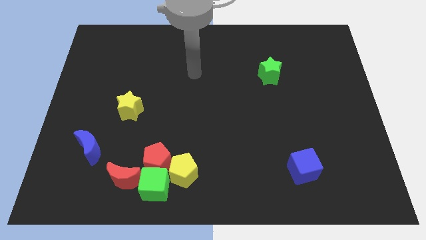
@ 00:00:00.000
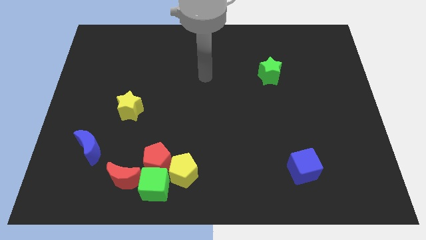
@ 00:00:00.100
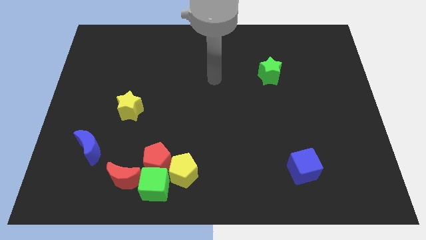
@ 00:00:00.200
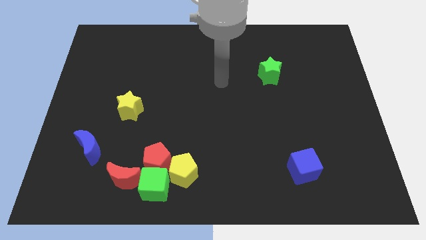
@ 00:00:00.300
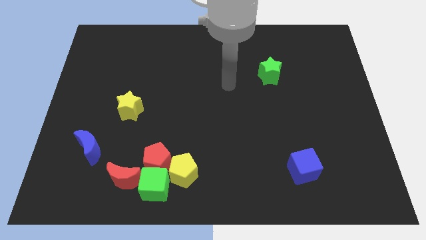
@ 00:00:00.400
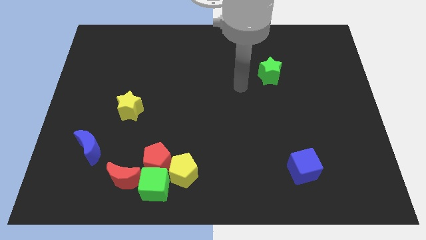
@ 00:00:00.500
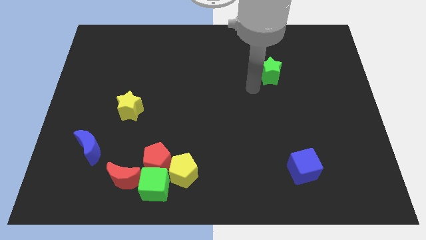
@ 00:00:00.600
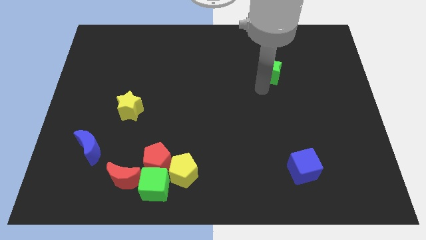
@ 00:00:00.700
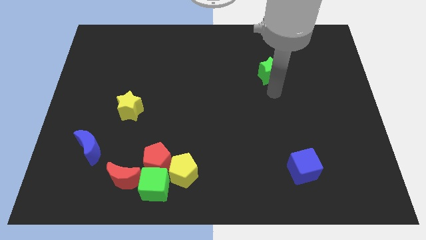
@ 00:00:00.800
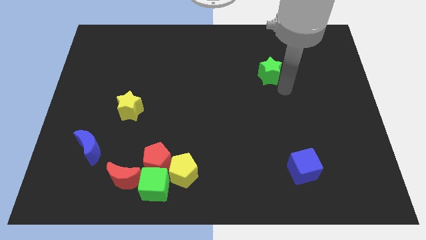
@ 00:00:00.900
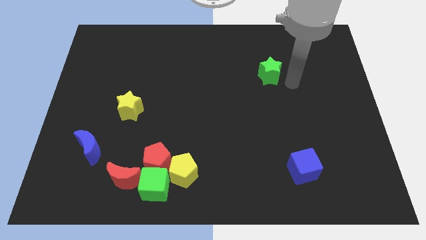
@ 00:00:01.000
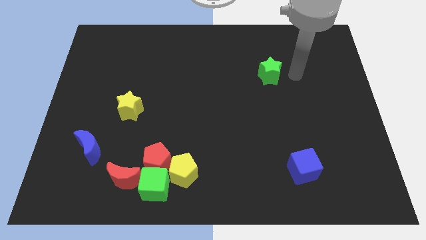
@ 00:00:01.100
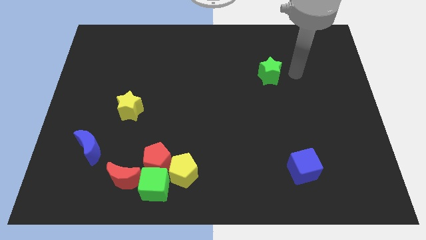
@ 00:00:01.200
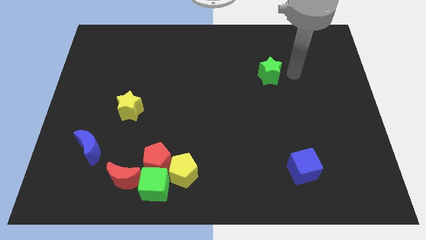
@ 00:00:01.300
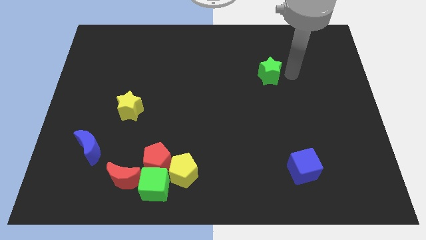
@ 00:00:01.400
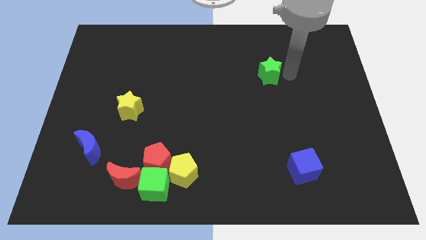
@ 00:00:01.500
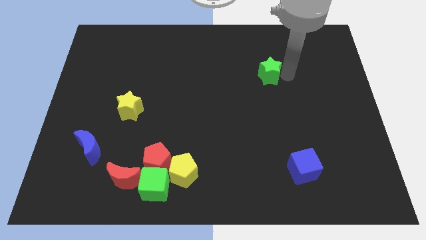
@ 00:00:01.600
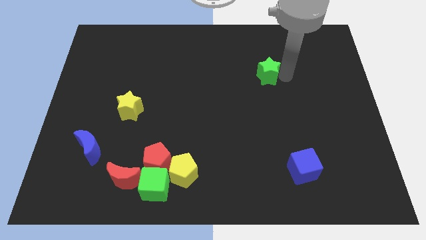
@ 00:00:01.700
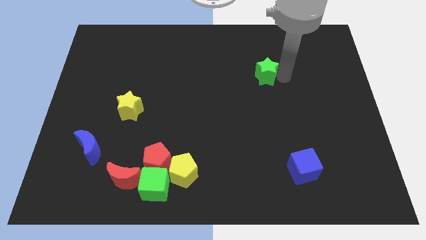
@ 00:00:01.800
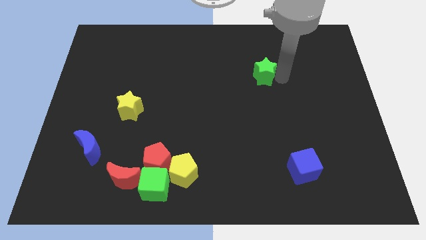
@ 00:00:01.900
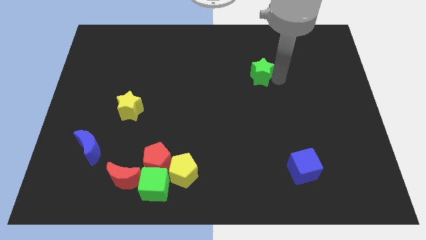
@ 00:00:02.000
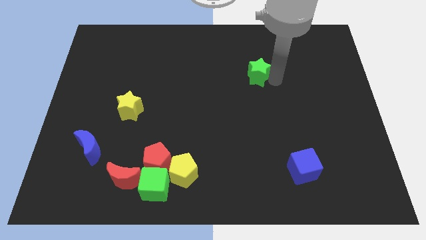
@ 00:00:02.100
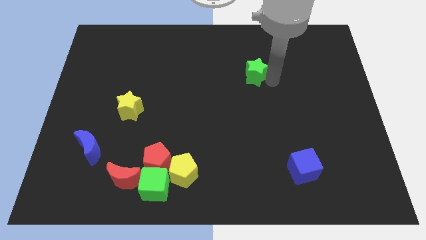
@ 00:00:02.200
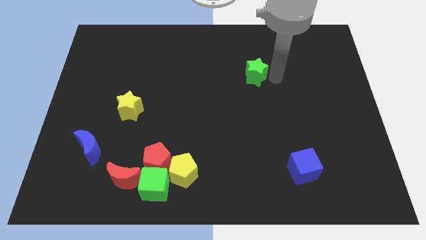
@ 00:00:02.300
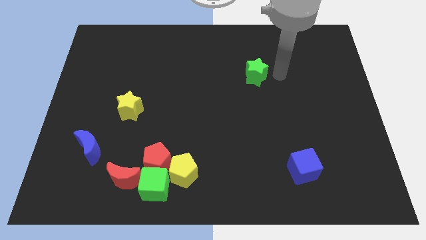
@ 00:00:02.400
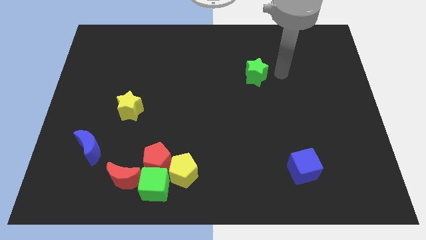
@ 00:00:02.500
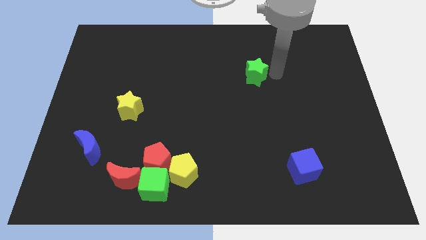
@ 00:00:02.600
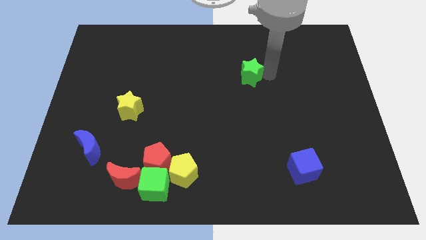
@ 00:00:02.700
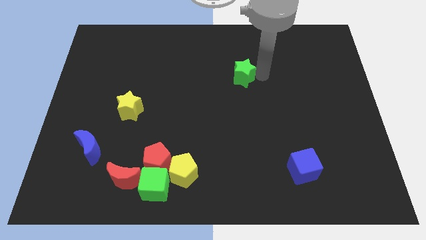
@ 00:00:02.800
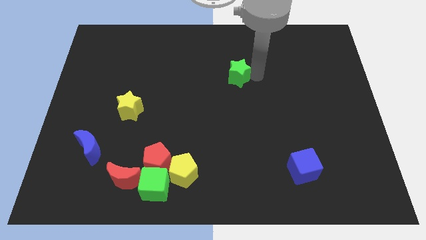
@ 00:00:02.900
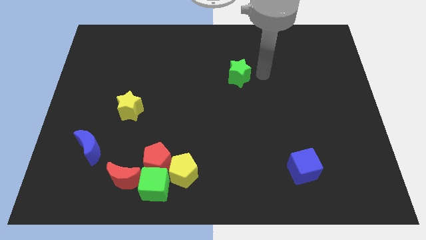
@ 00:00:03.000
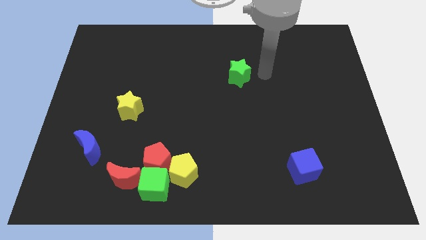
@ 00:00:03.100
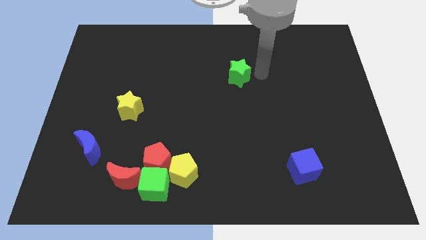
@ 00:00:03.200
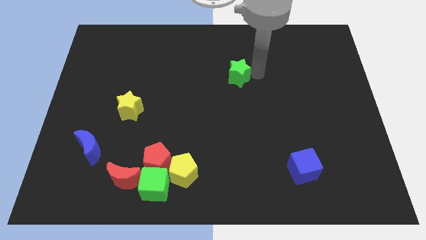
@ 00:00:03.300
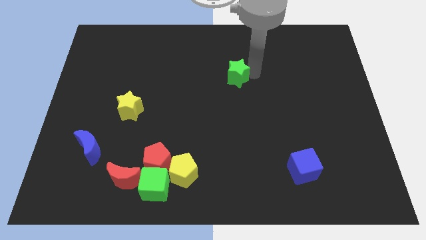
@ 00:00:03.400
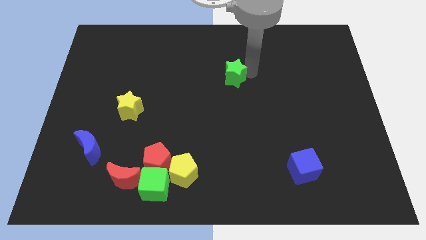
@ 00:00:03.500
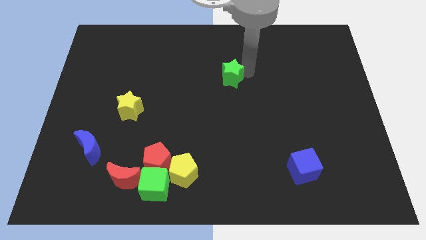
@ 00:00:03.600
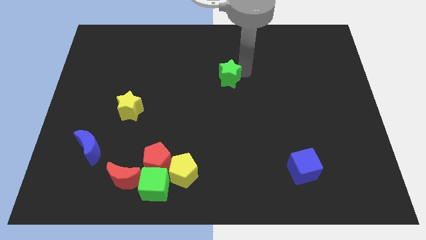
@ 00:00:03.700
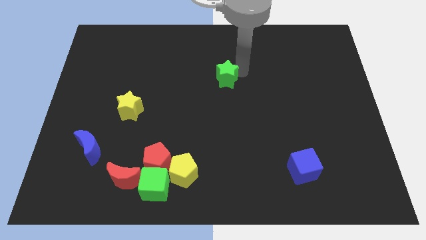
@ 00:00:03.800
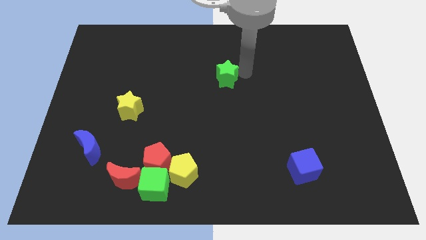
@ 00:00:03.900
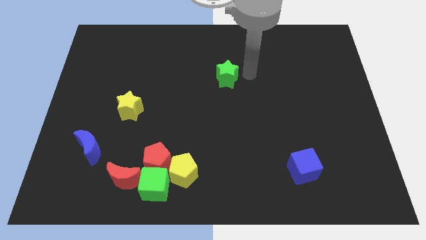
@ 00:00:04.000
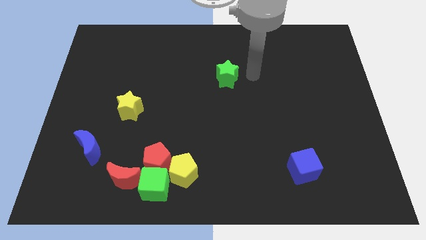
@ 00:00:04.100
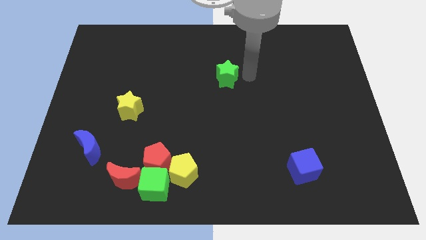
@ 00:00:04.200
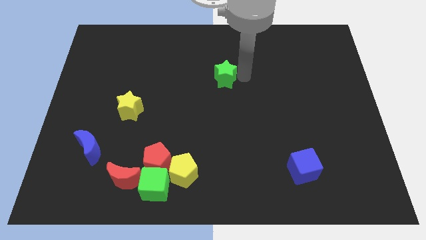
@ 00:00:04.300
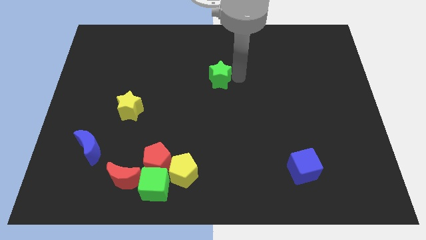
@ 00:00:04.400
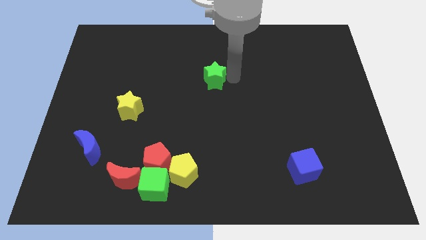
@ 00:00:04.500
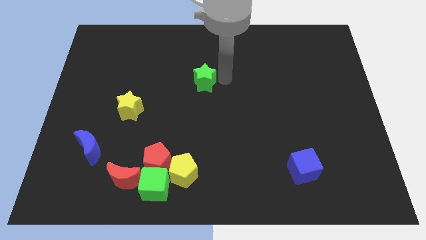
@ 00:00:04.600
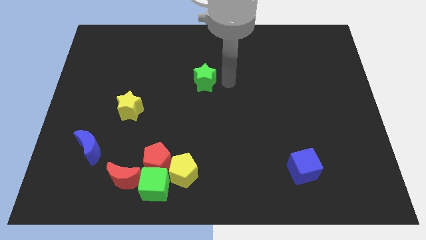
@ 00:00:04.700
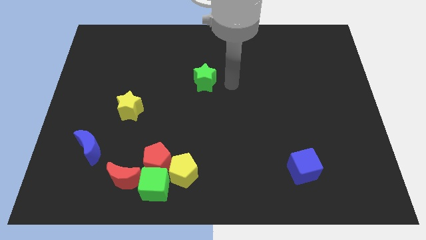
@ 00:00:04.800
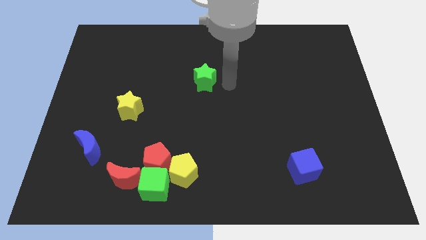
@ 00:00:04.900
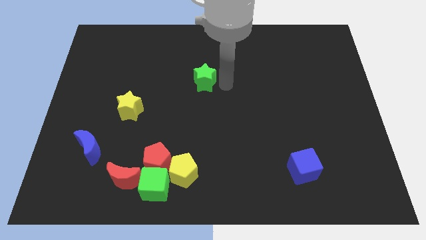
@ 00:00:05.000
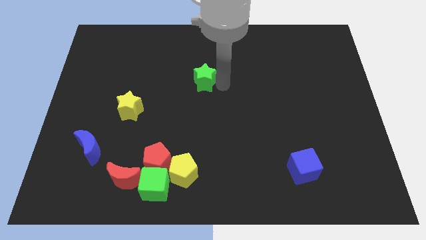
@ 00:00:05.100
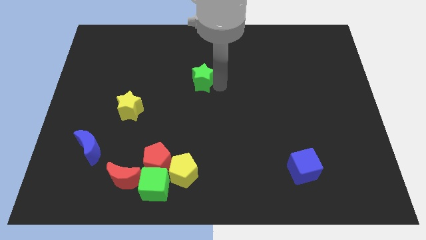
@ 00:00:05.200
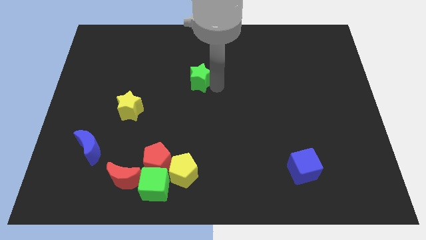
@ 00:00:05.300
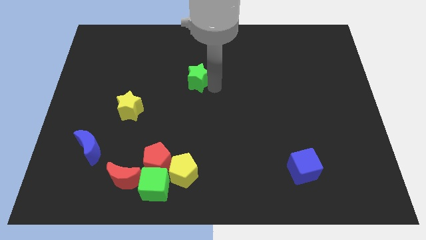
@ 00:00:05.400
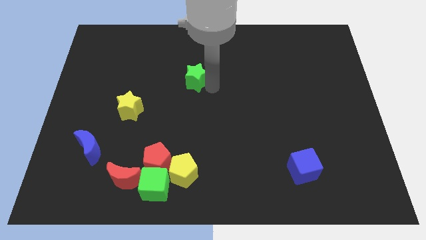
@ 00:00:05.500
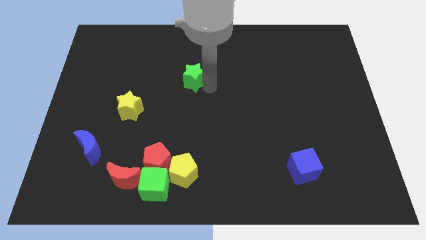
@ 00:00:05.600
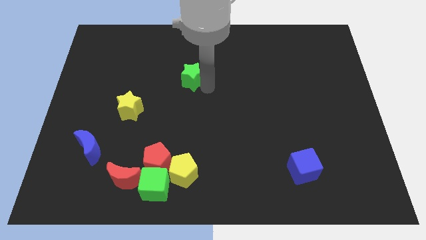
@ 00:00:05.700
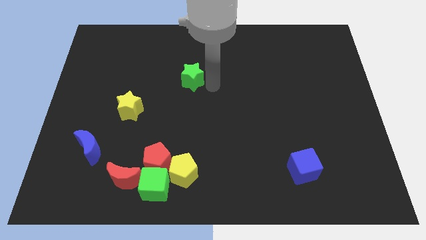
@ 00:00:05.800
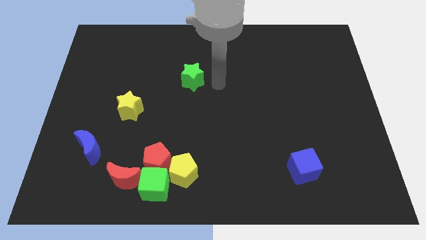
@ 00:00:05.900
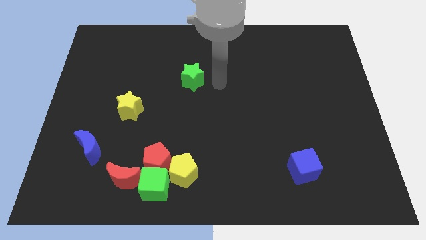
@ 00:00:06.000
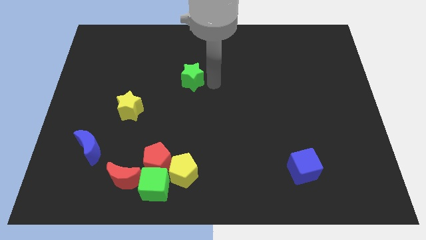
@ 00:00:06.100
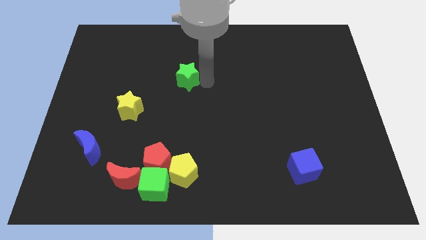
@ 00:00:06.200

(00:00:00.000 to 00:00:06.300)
push the green star left

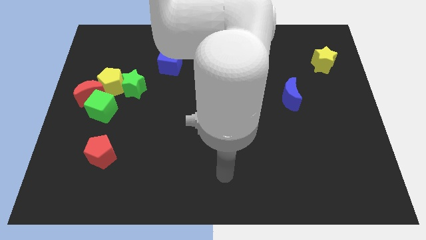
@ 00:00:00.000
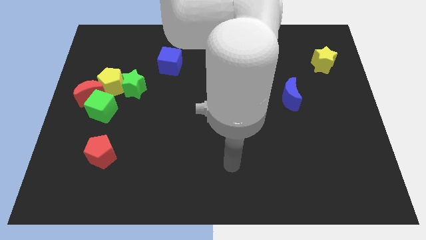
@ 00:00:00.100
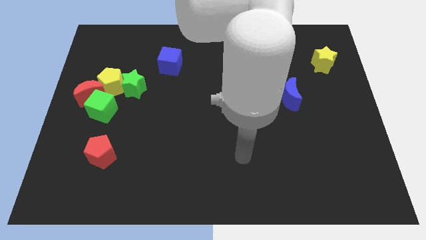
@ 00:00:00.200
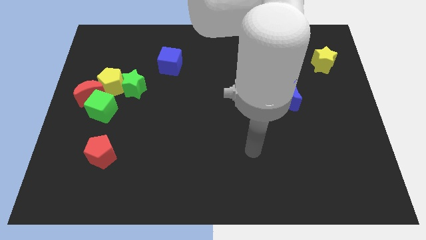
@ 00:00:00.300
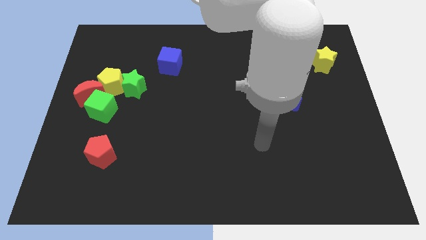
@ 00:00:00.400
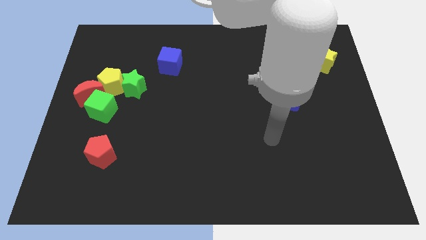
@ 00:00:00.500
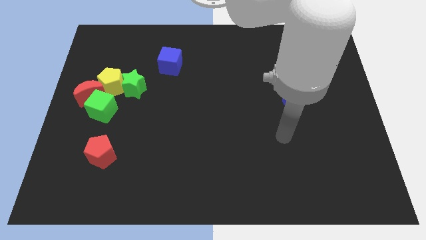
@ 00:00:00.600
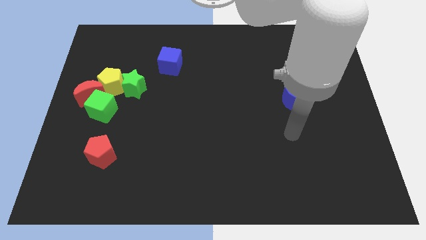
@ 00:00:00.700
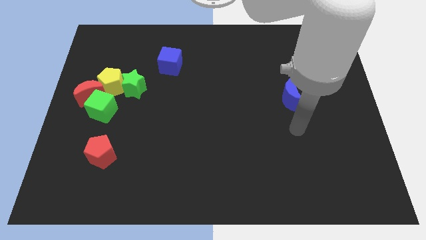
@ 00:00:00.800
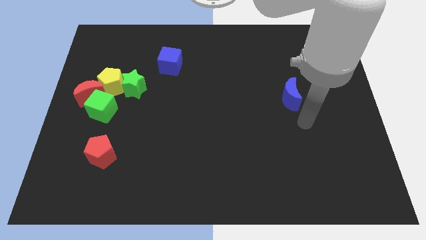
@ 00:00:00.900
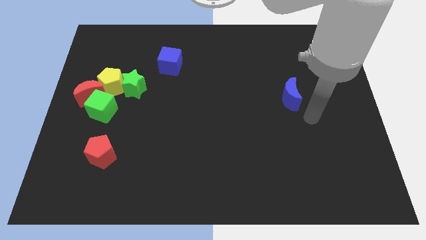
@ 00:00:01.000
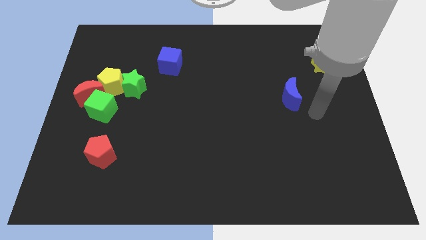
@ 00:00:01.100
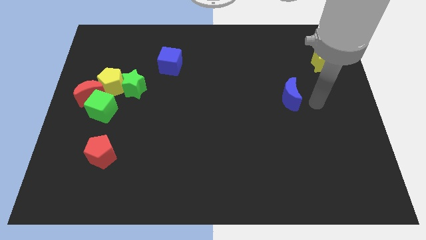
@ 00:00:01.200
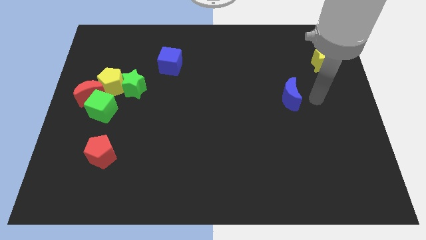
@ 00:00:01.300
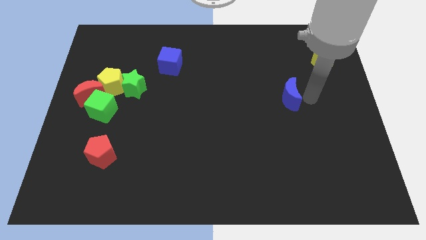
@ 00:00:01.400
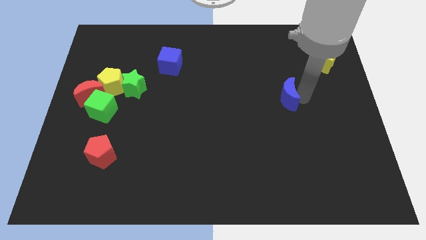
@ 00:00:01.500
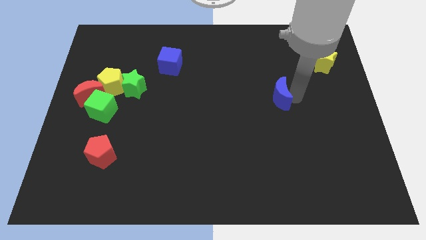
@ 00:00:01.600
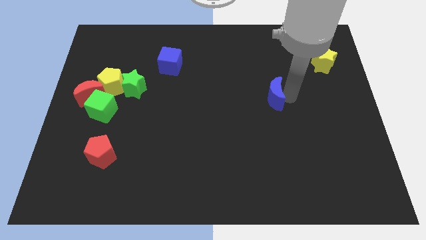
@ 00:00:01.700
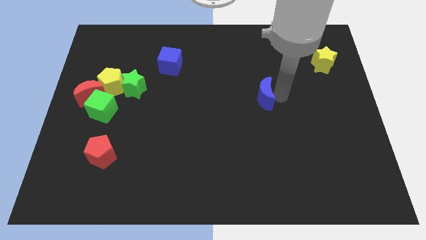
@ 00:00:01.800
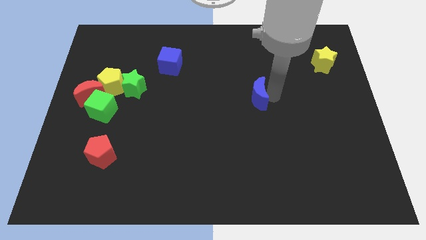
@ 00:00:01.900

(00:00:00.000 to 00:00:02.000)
push the blue moon a little left

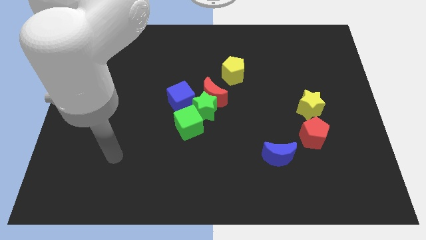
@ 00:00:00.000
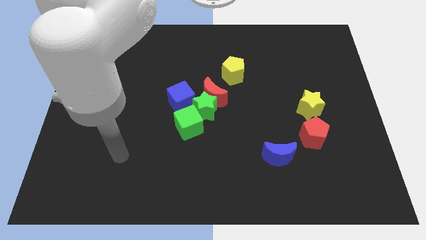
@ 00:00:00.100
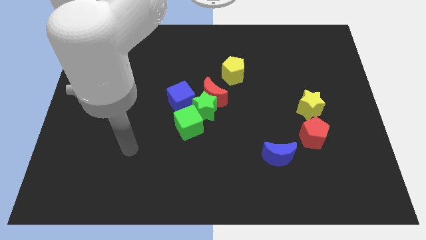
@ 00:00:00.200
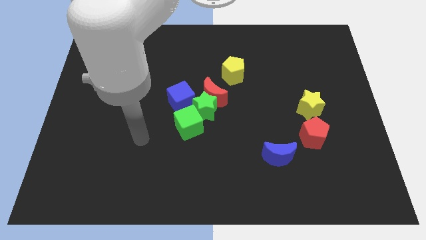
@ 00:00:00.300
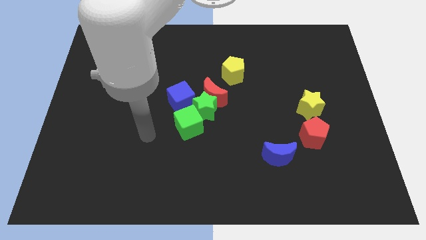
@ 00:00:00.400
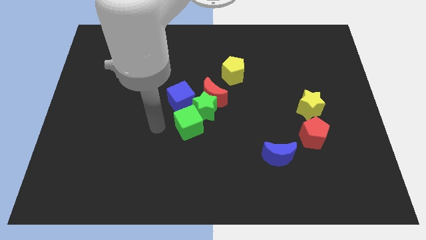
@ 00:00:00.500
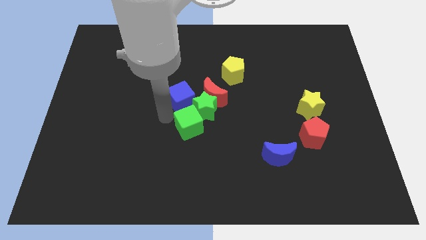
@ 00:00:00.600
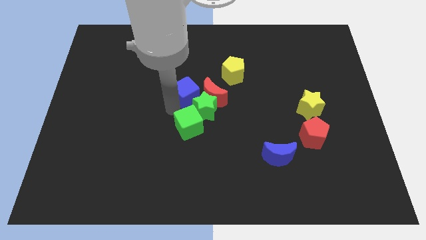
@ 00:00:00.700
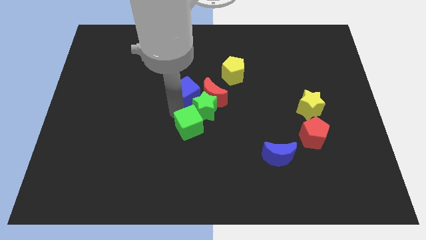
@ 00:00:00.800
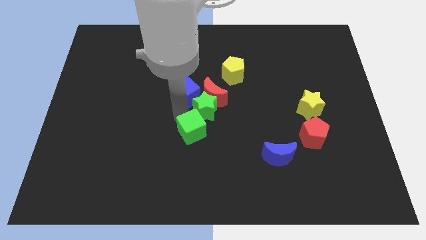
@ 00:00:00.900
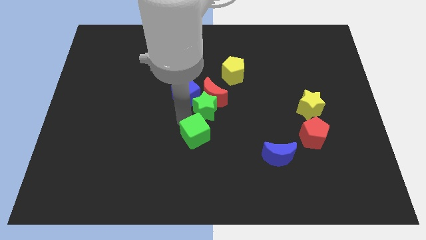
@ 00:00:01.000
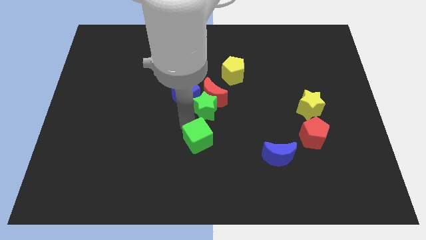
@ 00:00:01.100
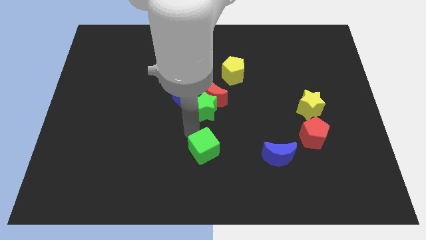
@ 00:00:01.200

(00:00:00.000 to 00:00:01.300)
slide the green cube downwards and right diagonally a little
